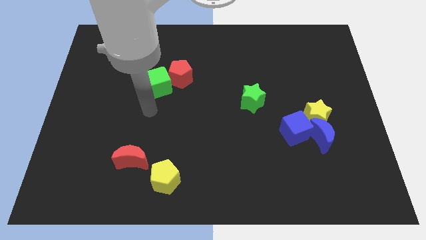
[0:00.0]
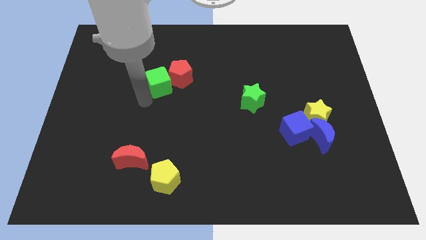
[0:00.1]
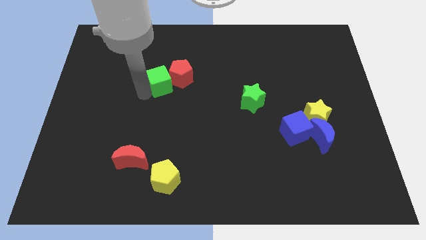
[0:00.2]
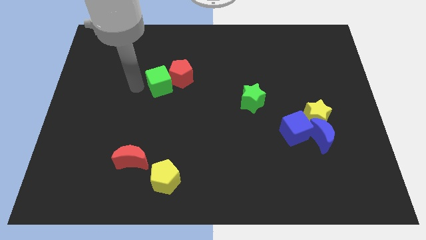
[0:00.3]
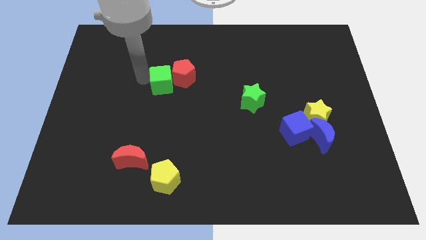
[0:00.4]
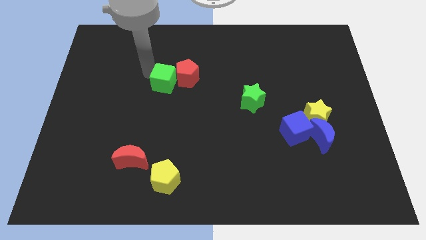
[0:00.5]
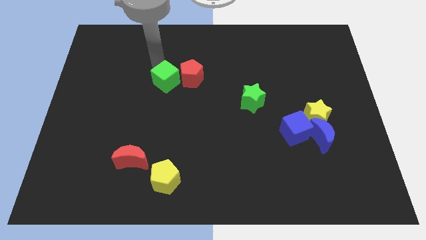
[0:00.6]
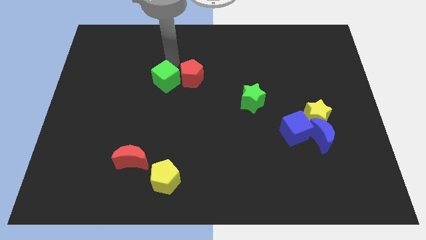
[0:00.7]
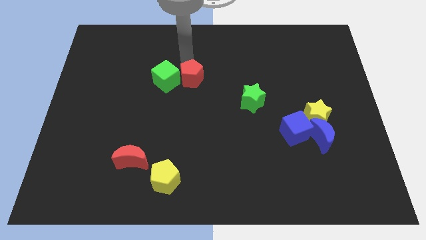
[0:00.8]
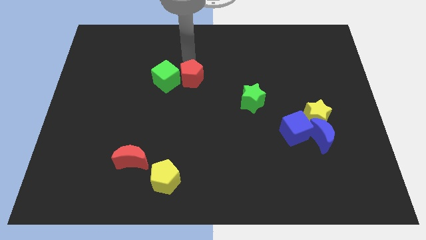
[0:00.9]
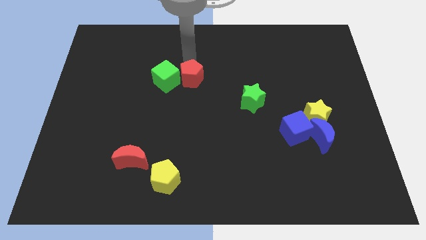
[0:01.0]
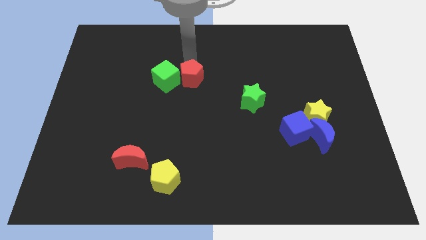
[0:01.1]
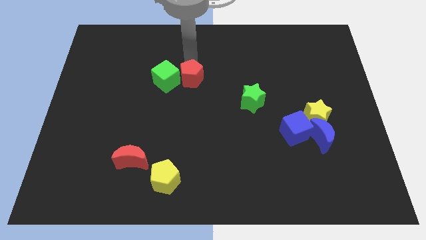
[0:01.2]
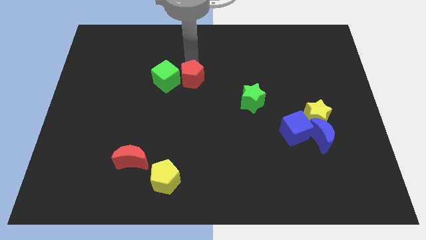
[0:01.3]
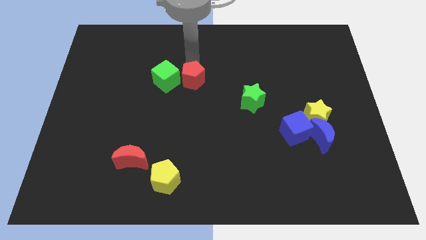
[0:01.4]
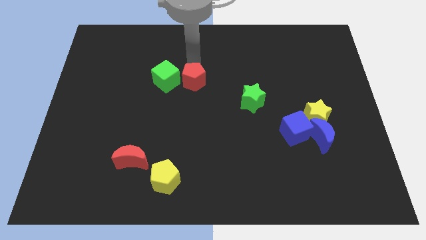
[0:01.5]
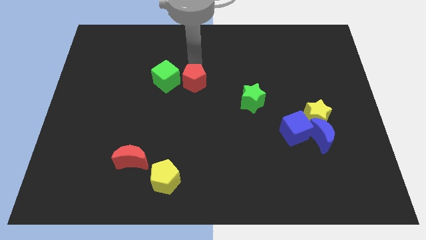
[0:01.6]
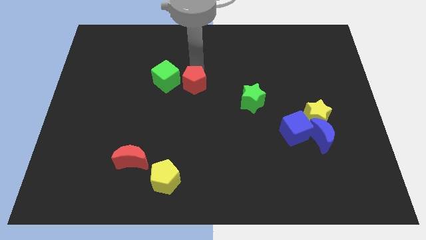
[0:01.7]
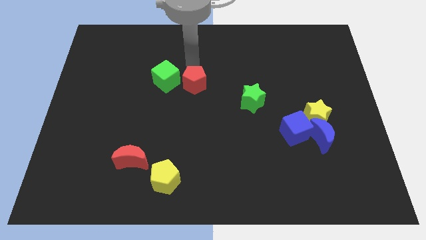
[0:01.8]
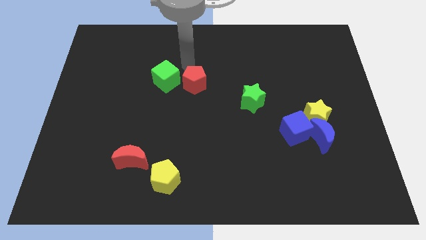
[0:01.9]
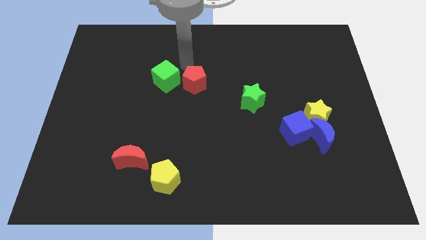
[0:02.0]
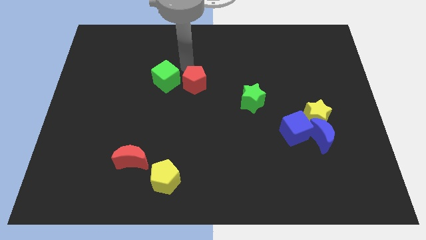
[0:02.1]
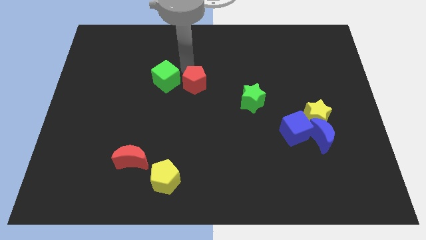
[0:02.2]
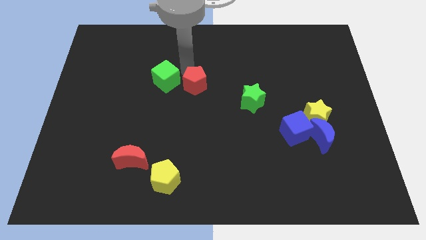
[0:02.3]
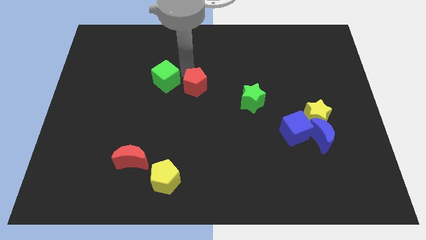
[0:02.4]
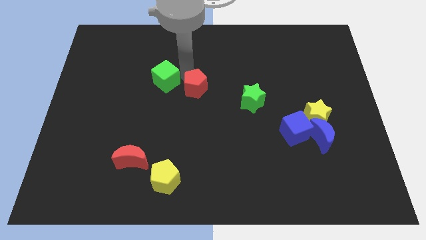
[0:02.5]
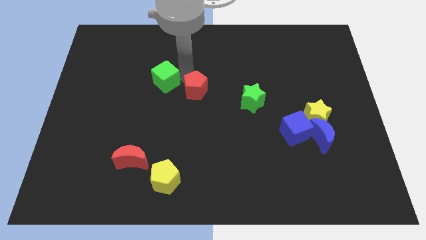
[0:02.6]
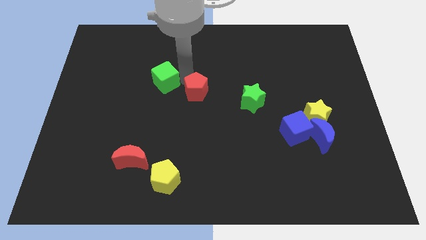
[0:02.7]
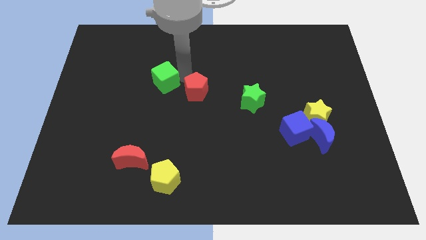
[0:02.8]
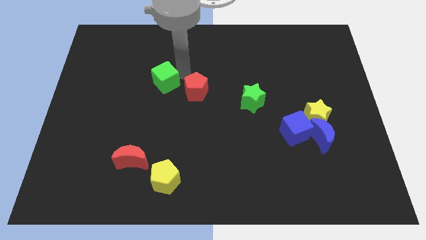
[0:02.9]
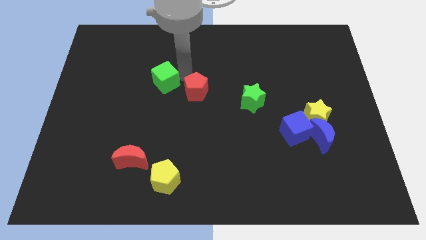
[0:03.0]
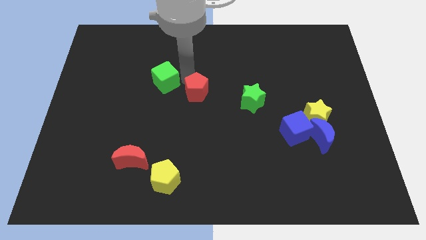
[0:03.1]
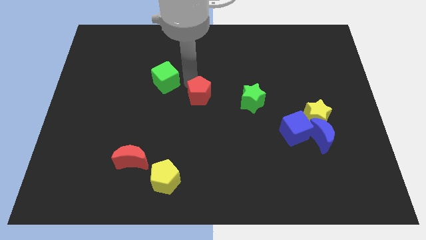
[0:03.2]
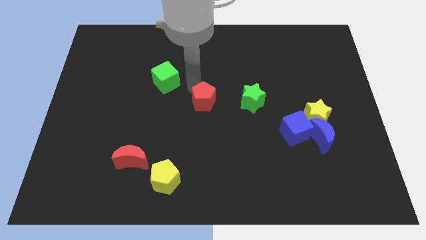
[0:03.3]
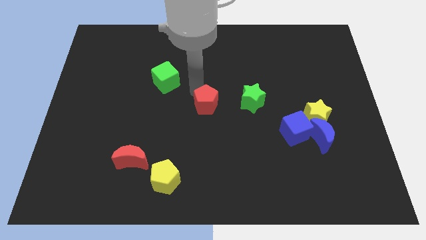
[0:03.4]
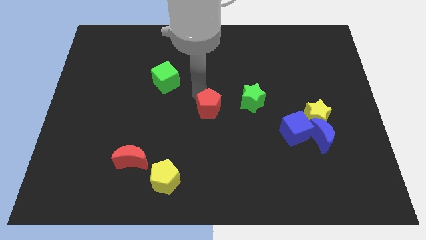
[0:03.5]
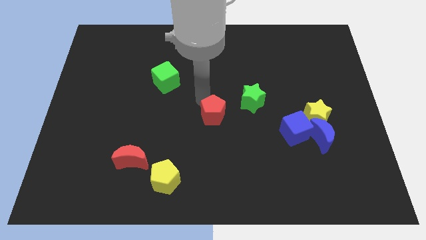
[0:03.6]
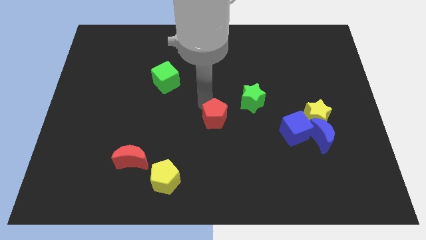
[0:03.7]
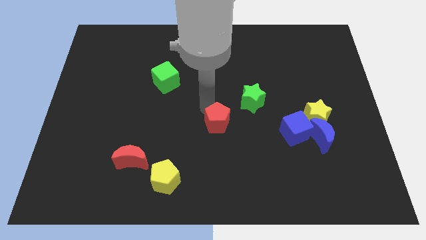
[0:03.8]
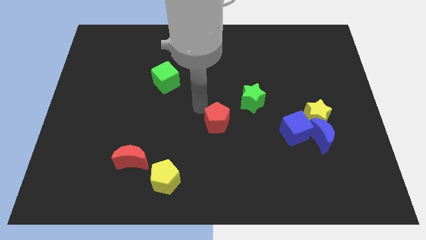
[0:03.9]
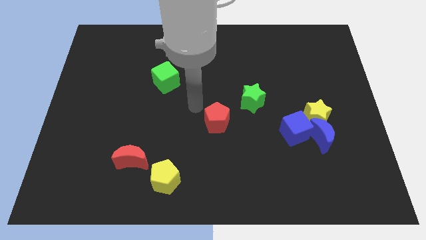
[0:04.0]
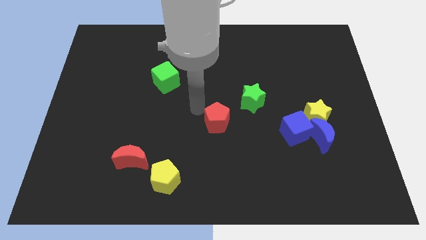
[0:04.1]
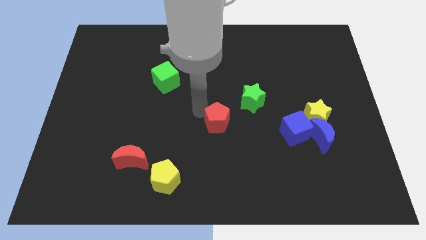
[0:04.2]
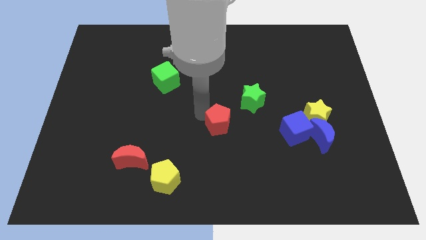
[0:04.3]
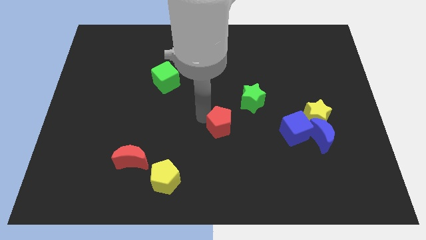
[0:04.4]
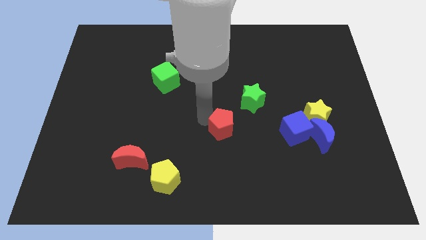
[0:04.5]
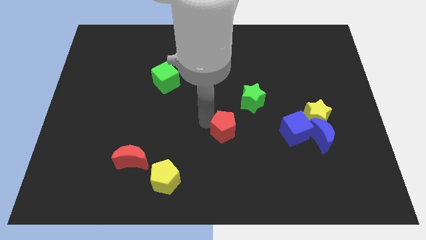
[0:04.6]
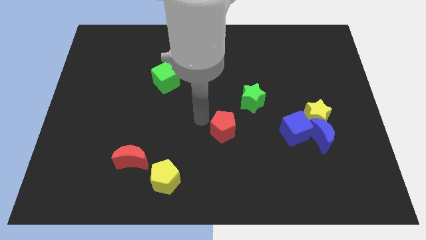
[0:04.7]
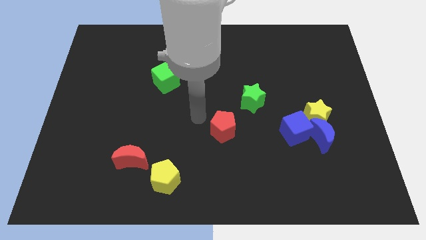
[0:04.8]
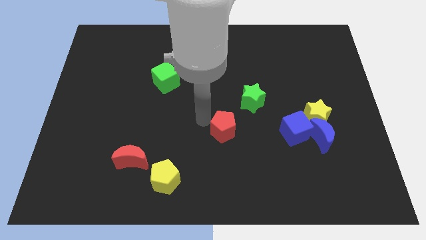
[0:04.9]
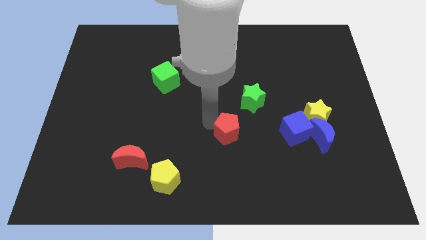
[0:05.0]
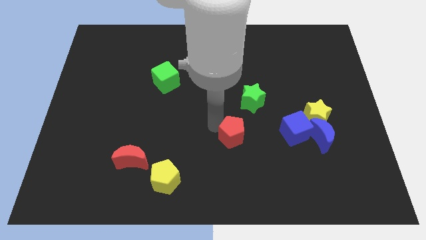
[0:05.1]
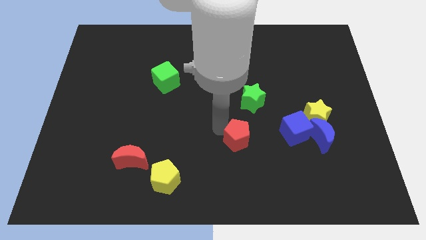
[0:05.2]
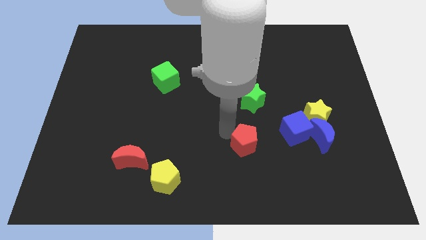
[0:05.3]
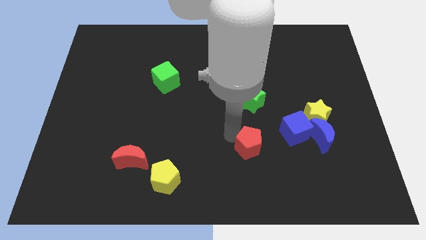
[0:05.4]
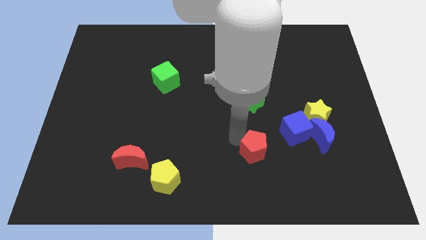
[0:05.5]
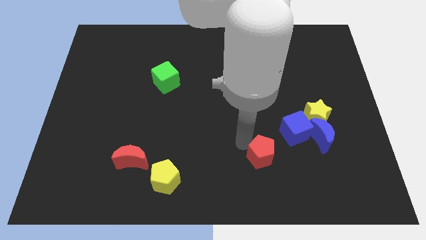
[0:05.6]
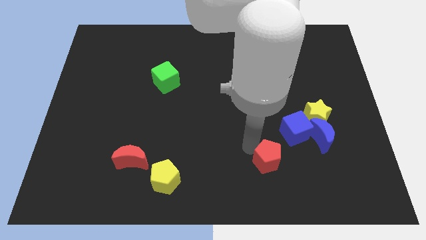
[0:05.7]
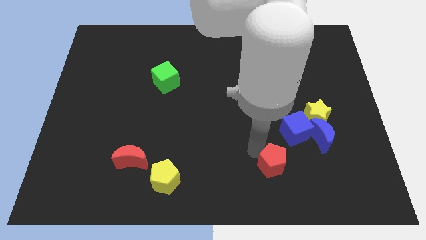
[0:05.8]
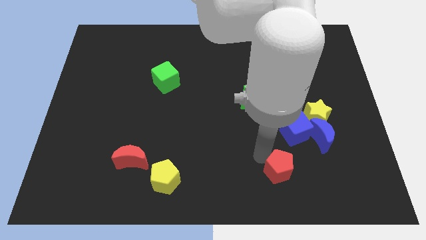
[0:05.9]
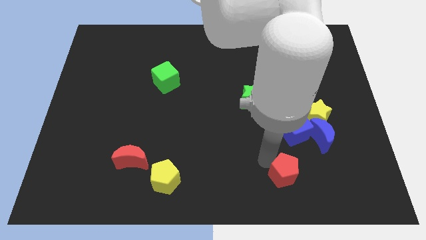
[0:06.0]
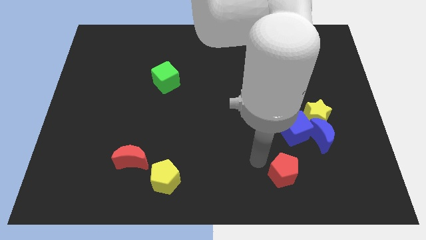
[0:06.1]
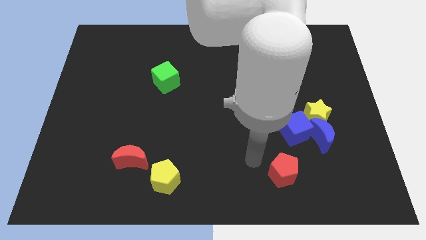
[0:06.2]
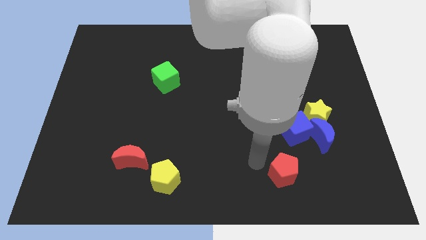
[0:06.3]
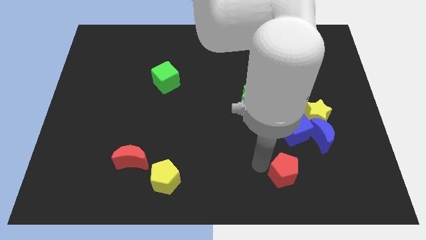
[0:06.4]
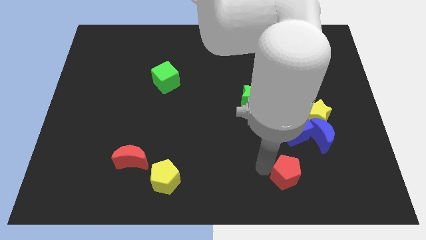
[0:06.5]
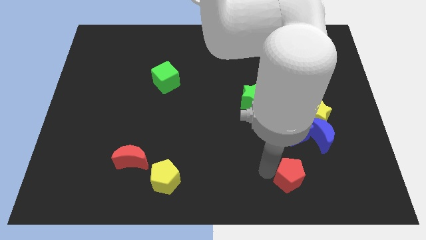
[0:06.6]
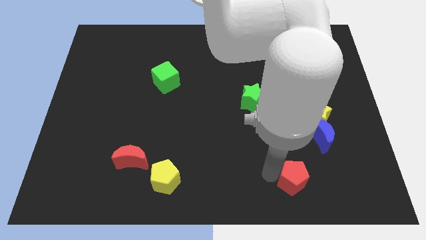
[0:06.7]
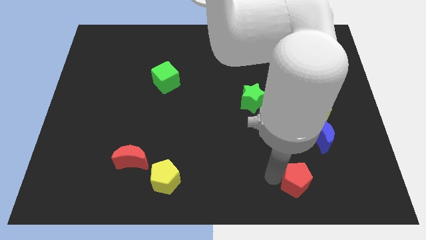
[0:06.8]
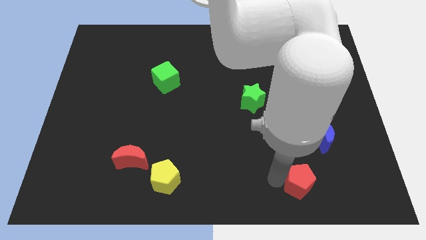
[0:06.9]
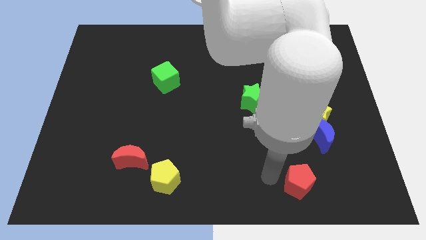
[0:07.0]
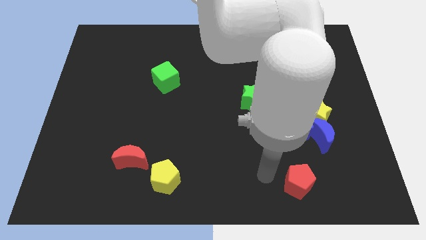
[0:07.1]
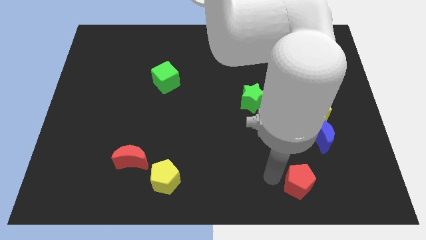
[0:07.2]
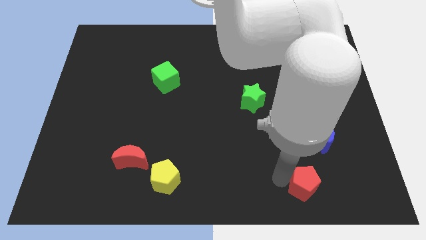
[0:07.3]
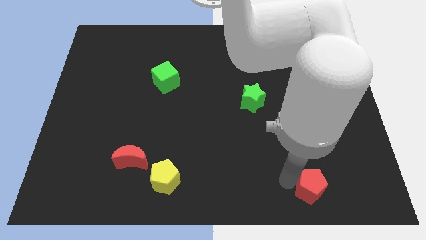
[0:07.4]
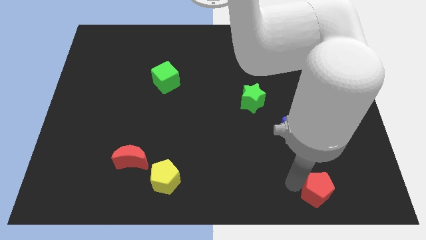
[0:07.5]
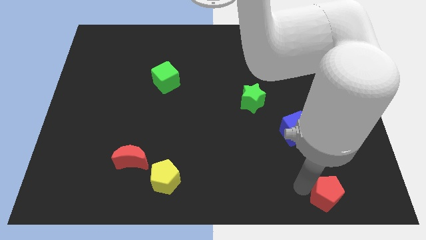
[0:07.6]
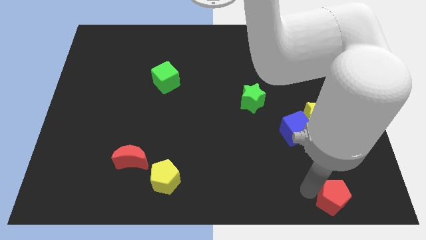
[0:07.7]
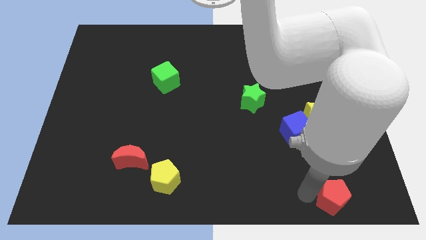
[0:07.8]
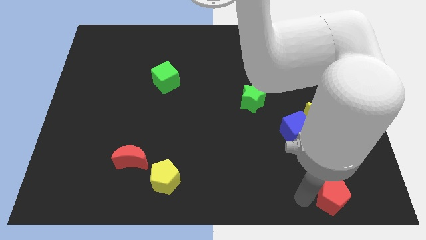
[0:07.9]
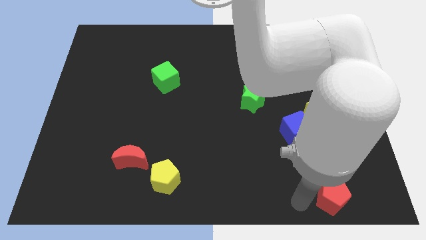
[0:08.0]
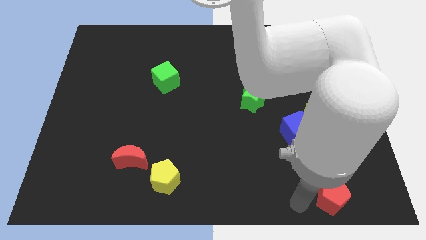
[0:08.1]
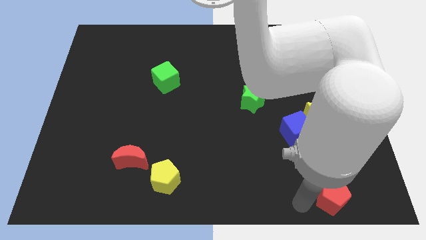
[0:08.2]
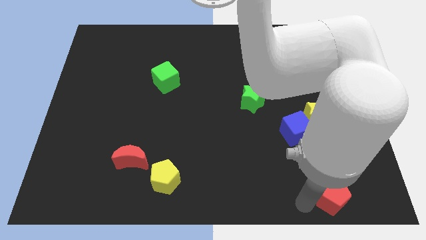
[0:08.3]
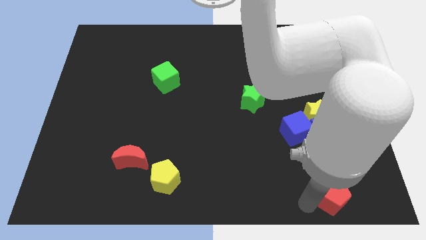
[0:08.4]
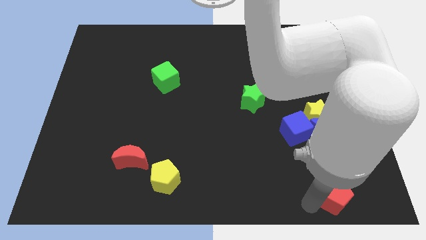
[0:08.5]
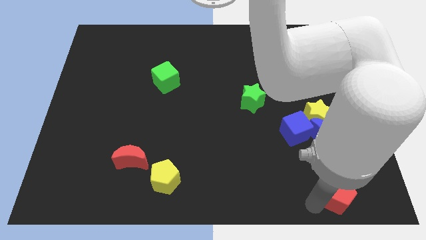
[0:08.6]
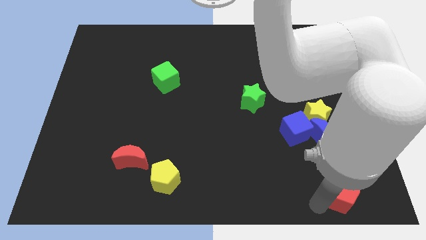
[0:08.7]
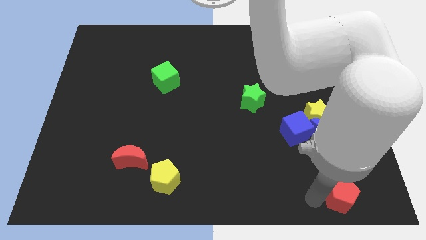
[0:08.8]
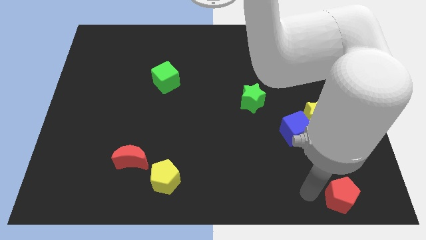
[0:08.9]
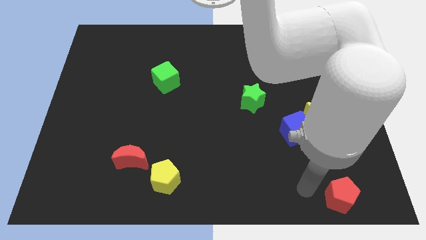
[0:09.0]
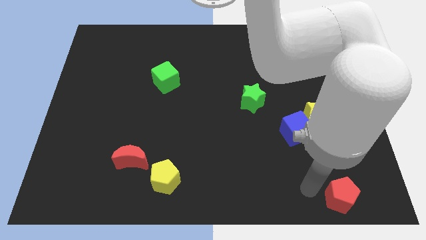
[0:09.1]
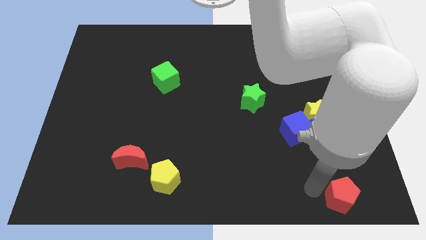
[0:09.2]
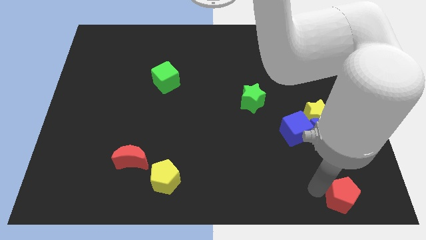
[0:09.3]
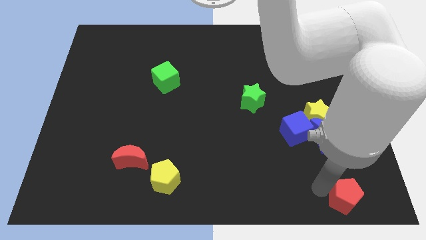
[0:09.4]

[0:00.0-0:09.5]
push the red pentagon to the bottom right
